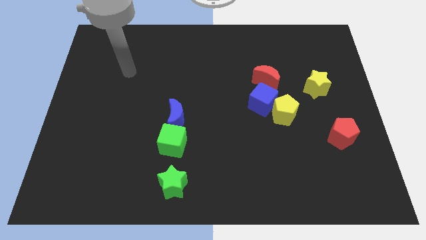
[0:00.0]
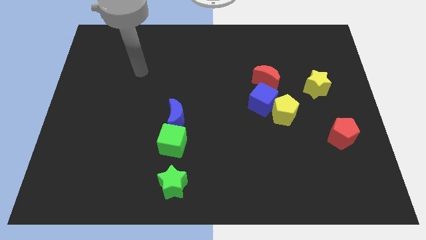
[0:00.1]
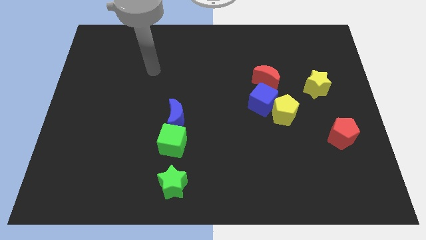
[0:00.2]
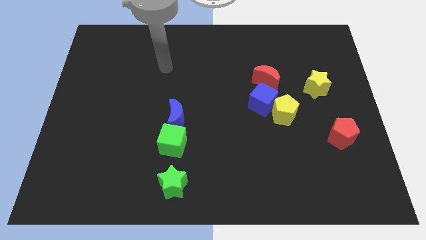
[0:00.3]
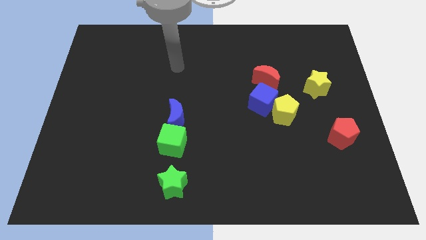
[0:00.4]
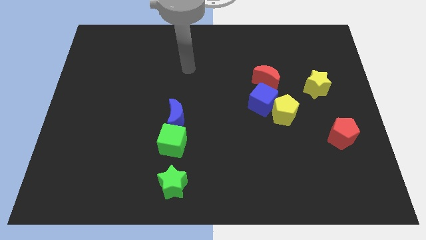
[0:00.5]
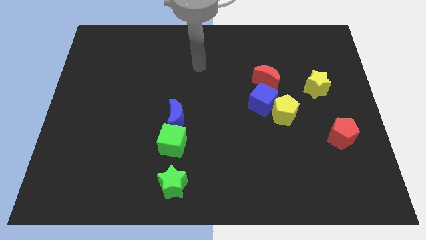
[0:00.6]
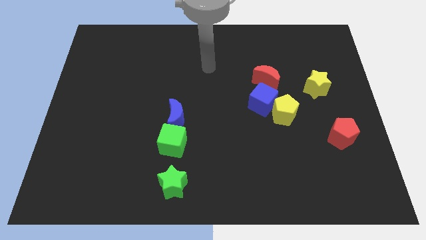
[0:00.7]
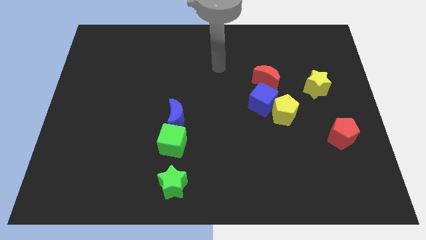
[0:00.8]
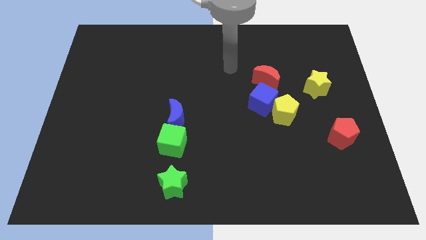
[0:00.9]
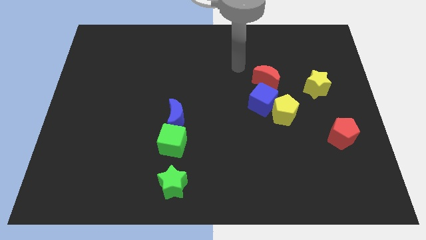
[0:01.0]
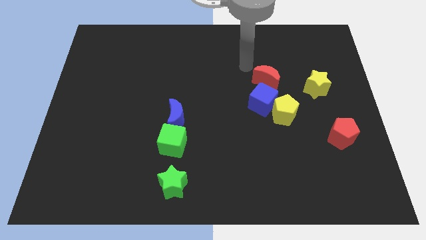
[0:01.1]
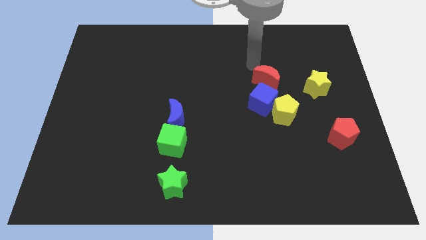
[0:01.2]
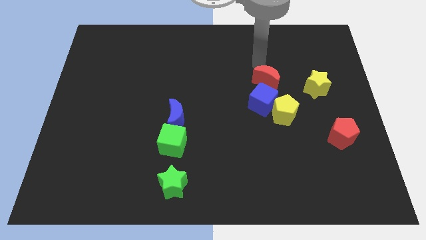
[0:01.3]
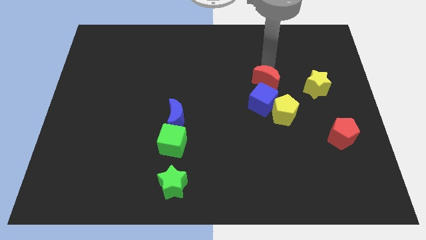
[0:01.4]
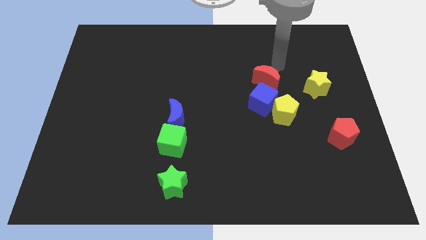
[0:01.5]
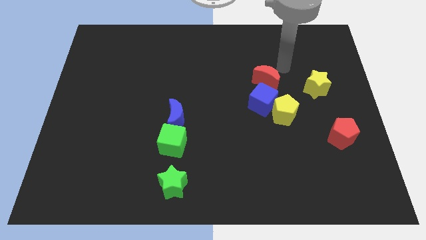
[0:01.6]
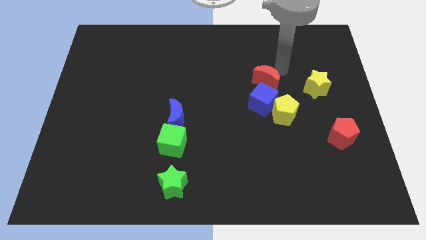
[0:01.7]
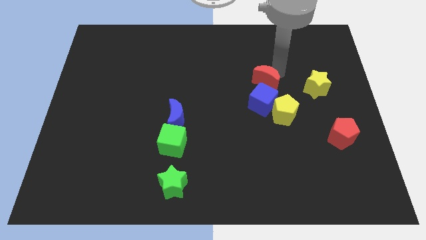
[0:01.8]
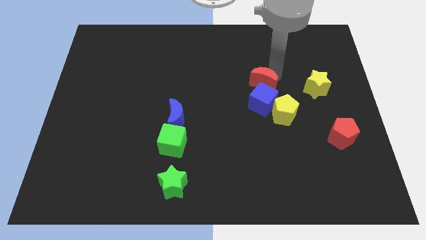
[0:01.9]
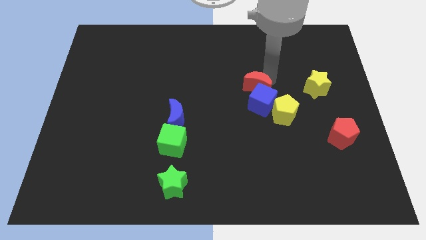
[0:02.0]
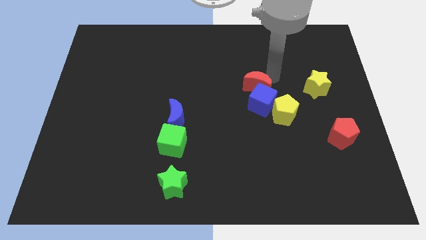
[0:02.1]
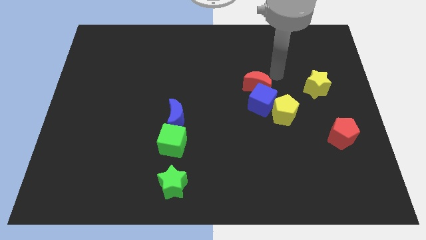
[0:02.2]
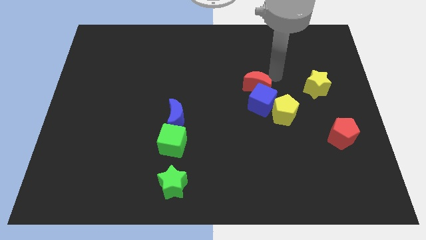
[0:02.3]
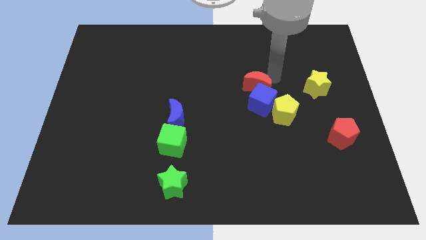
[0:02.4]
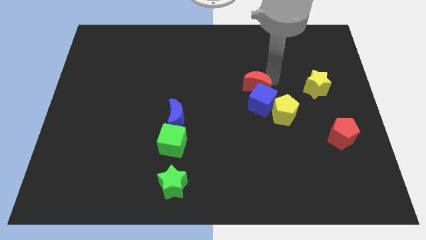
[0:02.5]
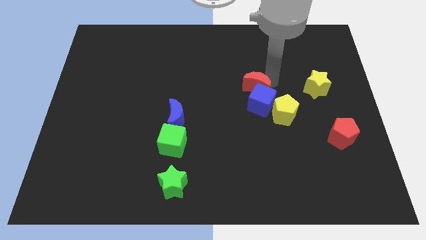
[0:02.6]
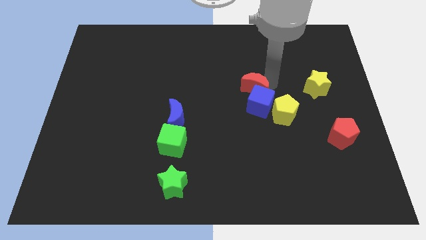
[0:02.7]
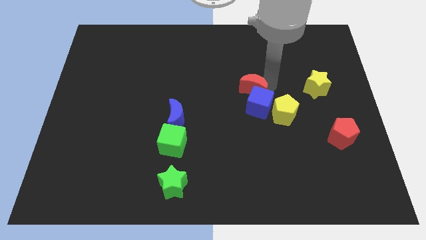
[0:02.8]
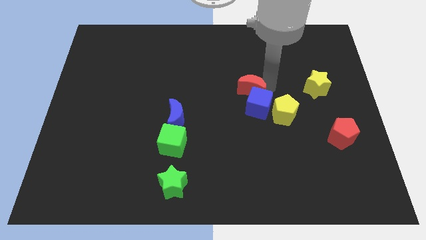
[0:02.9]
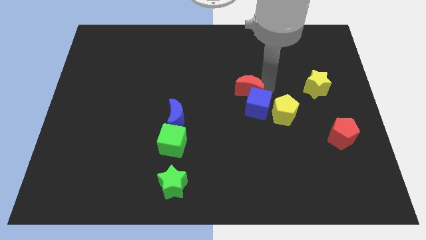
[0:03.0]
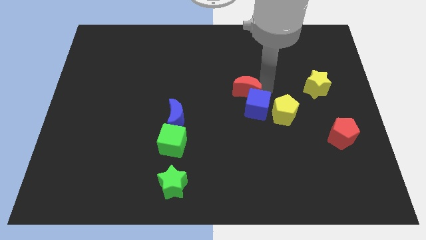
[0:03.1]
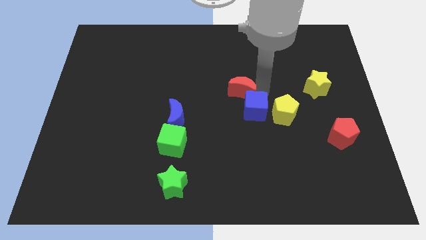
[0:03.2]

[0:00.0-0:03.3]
slightly slide the red moon downwards and to the left diagonally

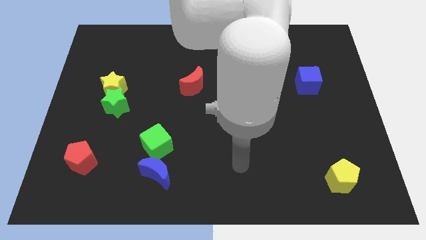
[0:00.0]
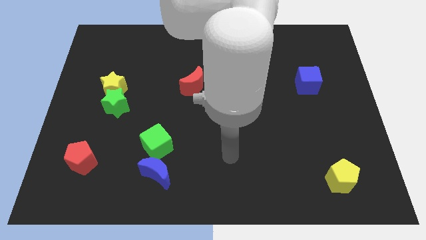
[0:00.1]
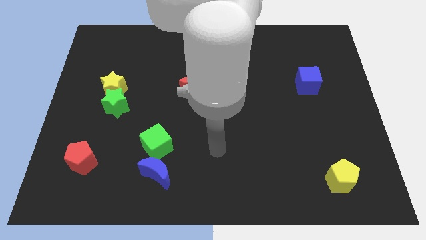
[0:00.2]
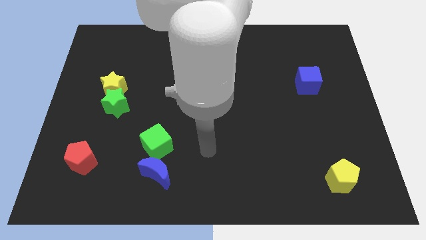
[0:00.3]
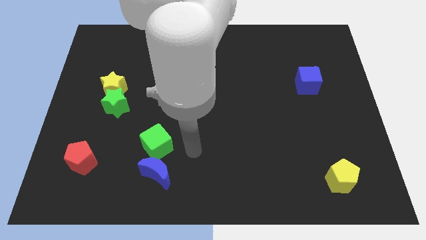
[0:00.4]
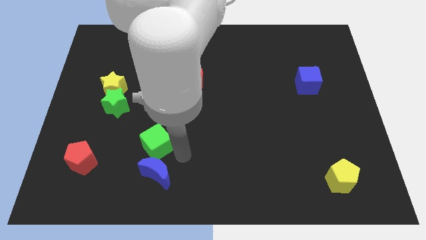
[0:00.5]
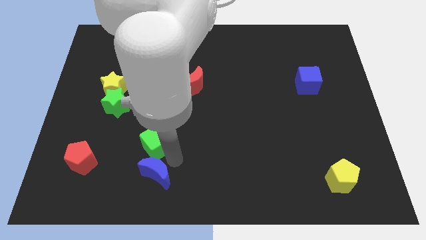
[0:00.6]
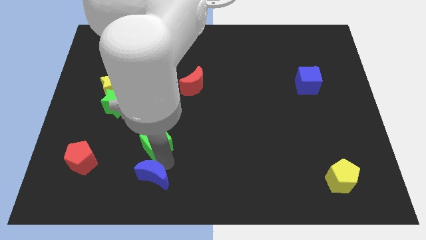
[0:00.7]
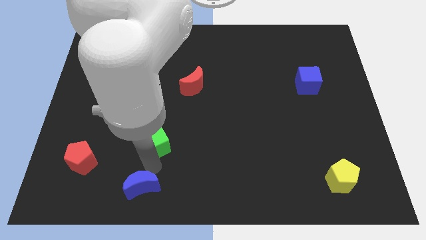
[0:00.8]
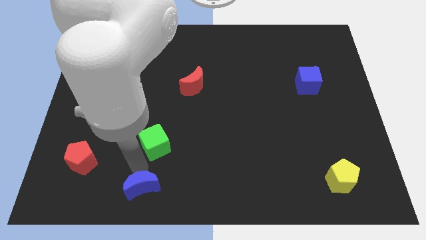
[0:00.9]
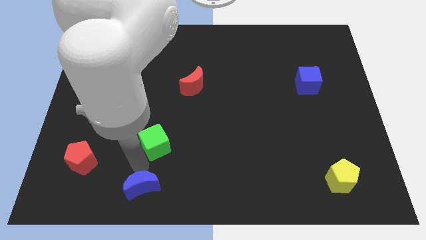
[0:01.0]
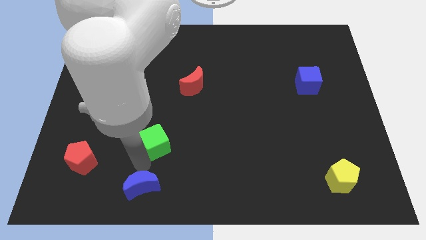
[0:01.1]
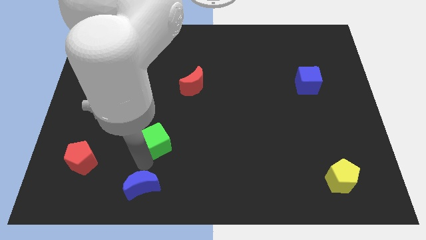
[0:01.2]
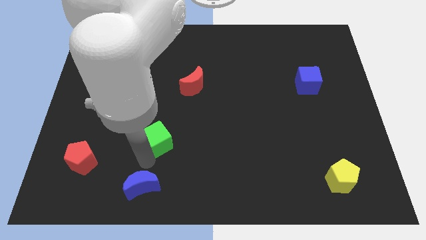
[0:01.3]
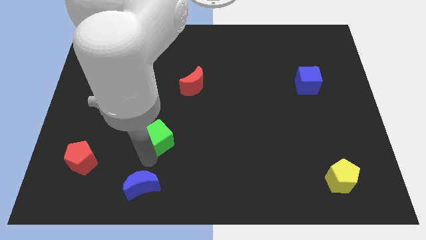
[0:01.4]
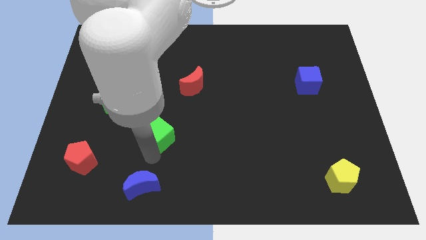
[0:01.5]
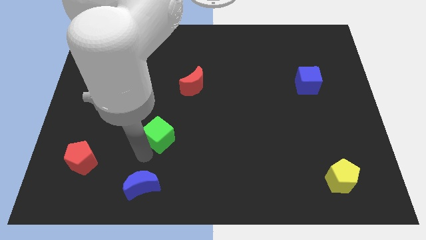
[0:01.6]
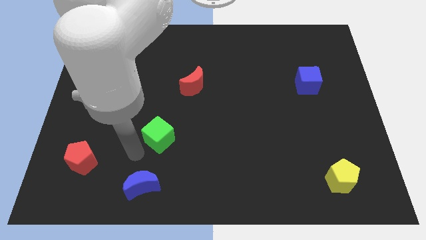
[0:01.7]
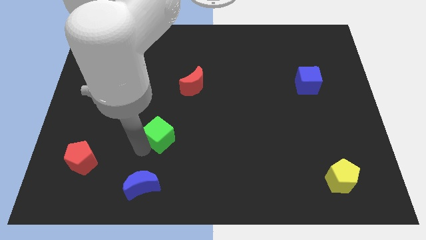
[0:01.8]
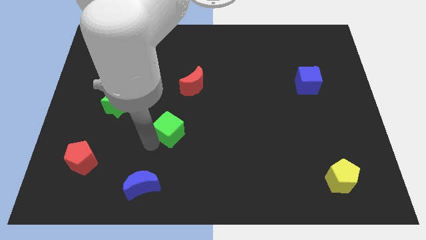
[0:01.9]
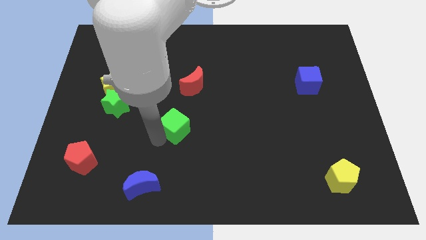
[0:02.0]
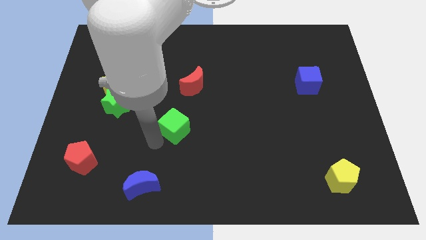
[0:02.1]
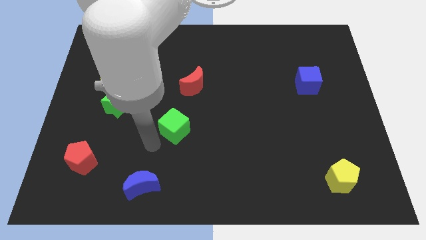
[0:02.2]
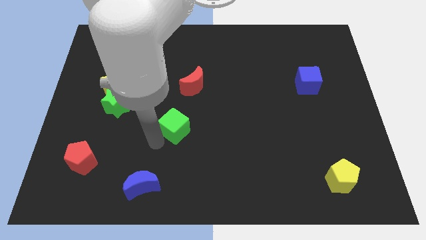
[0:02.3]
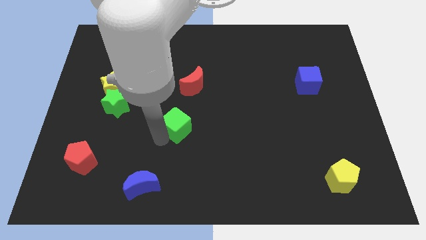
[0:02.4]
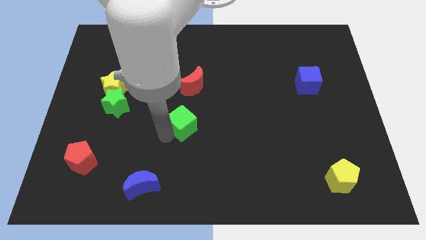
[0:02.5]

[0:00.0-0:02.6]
slightly push the green cube upwards and then right

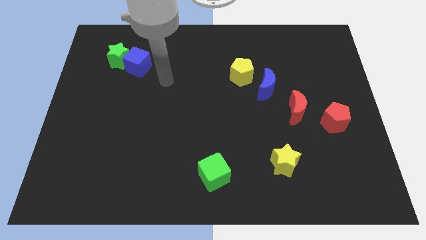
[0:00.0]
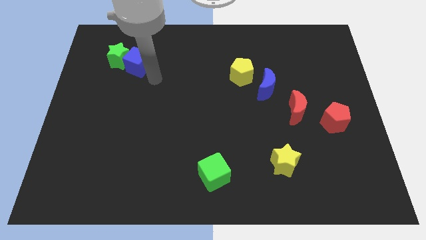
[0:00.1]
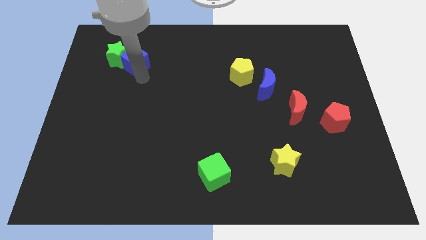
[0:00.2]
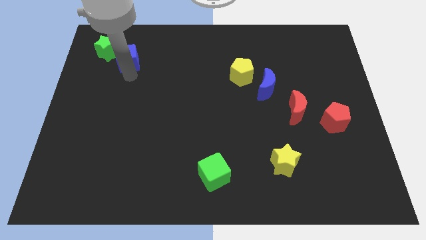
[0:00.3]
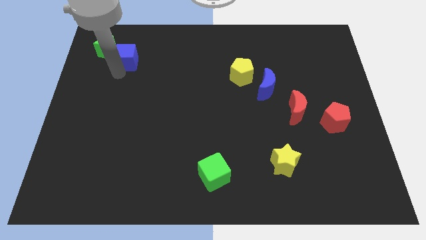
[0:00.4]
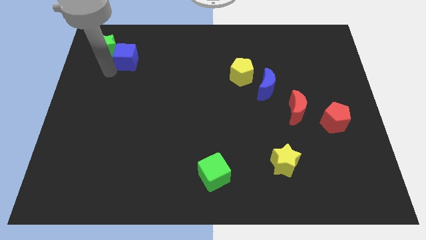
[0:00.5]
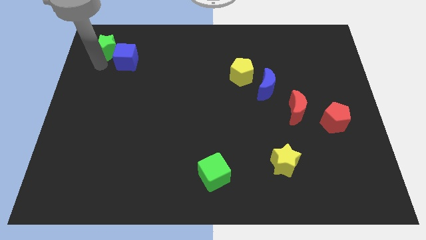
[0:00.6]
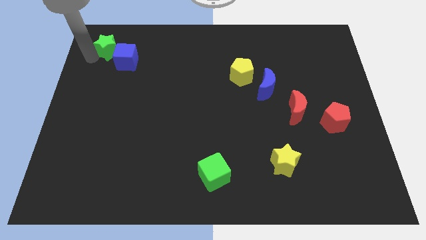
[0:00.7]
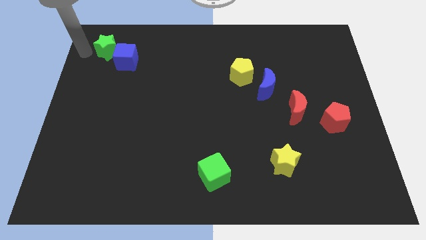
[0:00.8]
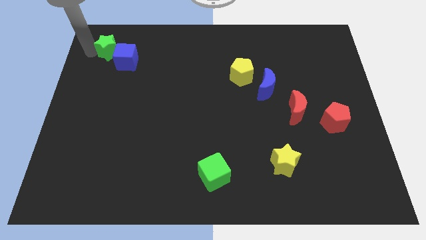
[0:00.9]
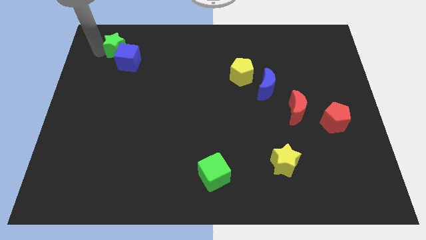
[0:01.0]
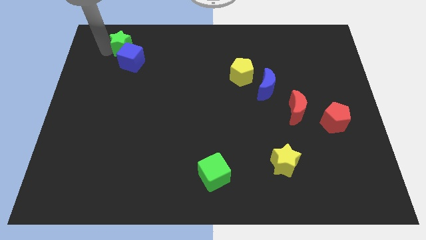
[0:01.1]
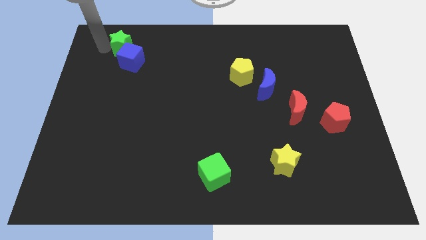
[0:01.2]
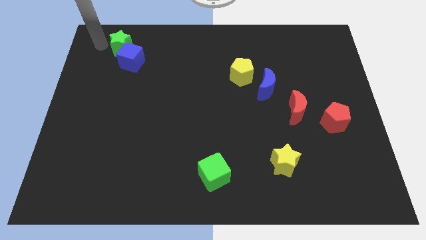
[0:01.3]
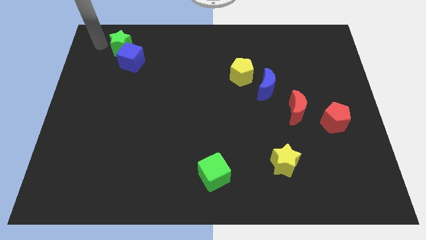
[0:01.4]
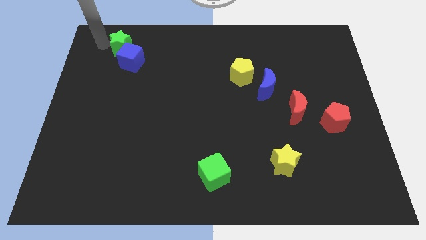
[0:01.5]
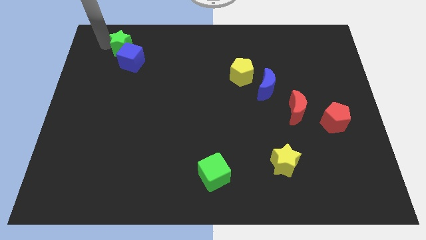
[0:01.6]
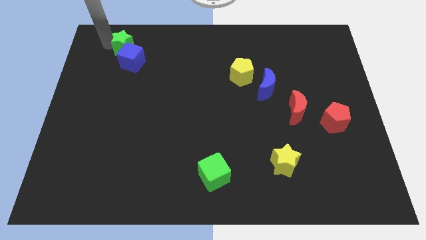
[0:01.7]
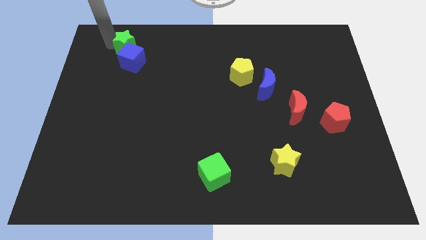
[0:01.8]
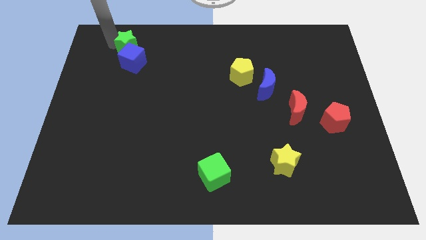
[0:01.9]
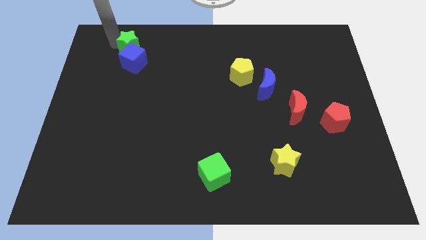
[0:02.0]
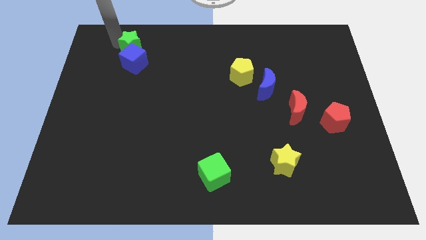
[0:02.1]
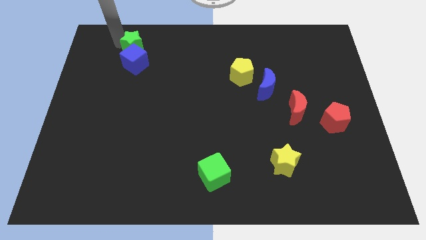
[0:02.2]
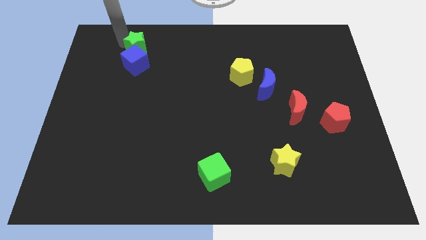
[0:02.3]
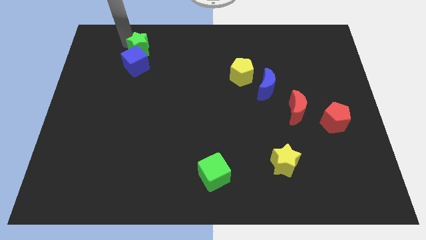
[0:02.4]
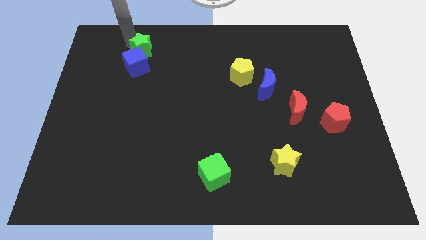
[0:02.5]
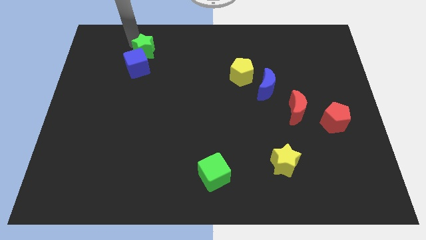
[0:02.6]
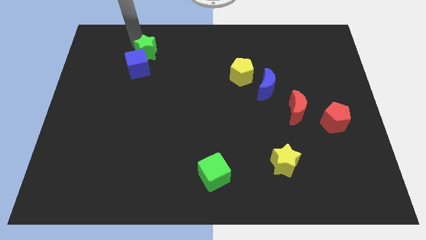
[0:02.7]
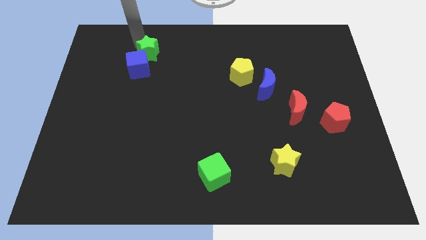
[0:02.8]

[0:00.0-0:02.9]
slide the green star right a bit
